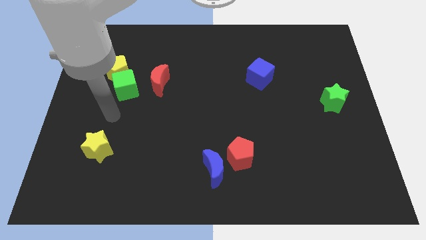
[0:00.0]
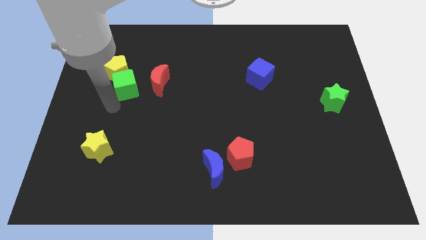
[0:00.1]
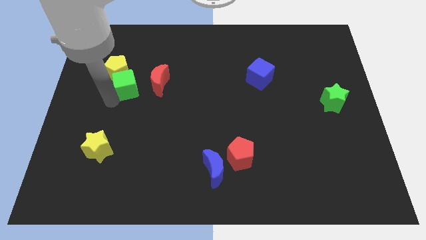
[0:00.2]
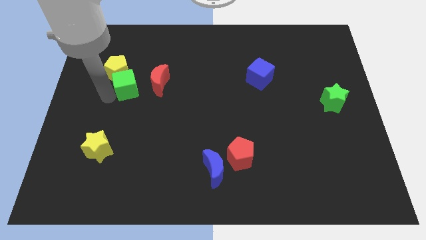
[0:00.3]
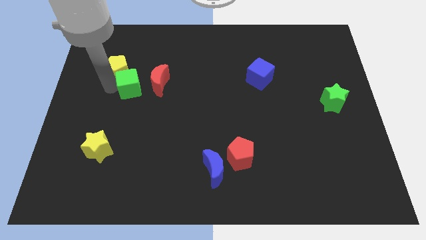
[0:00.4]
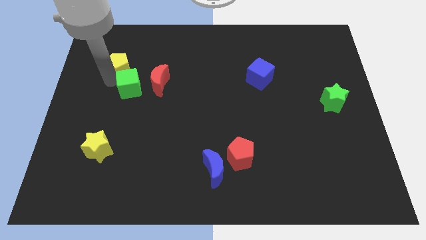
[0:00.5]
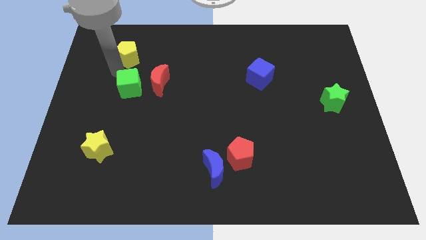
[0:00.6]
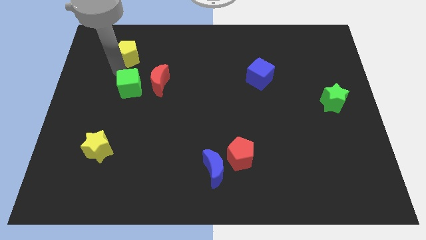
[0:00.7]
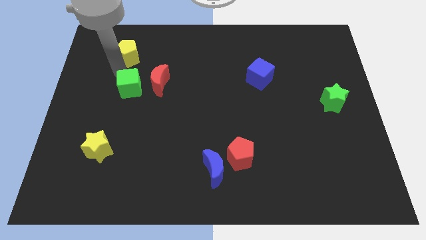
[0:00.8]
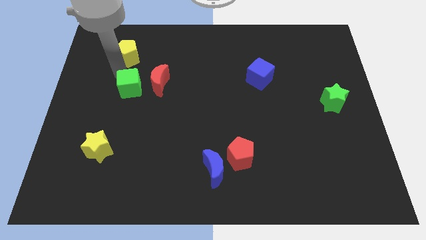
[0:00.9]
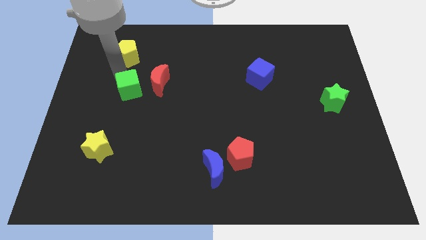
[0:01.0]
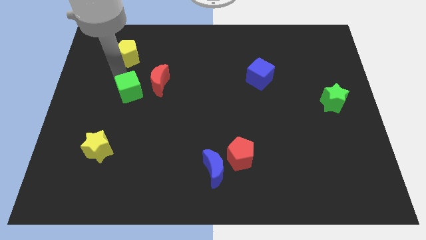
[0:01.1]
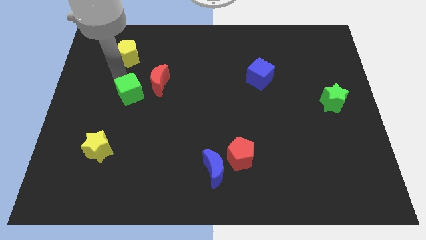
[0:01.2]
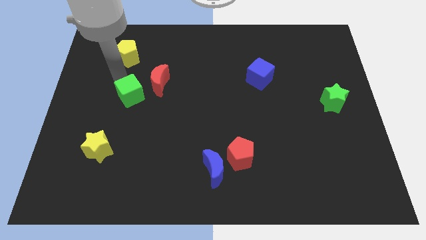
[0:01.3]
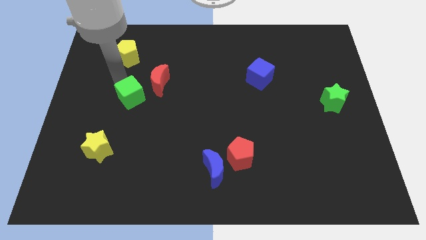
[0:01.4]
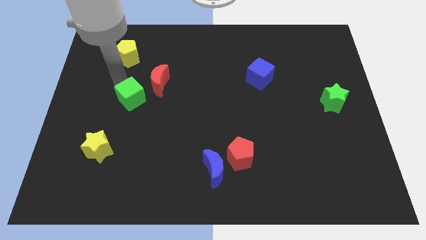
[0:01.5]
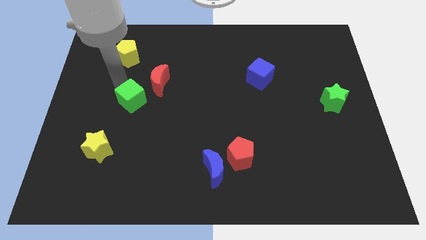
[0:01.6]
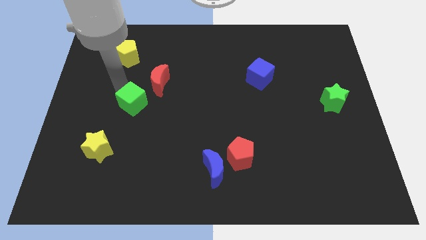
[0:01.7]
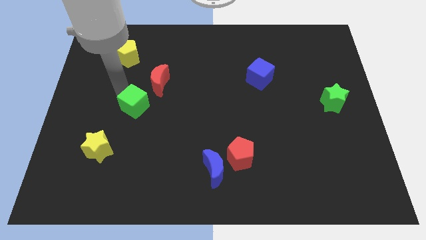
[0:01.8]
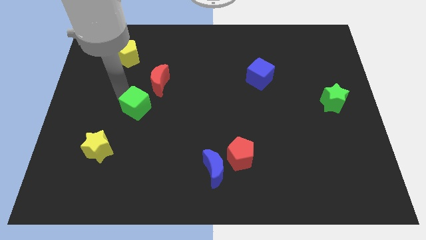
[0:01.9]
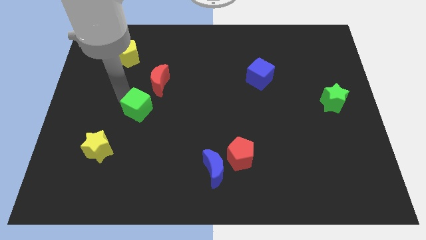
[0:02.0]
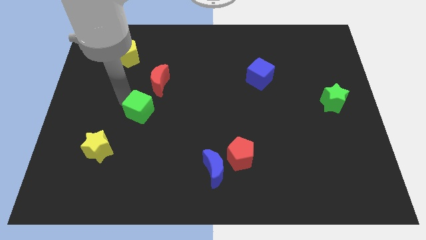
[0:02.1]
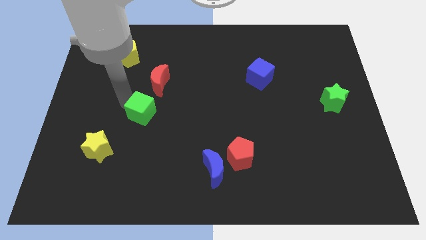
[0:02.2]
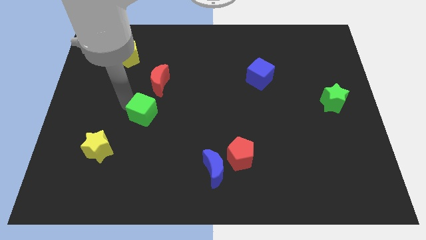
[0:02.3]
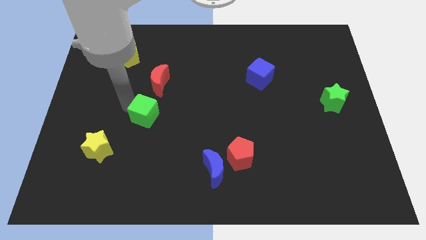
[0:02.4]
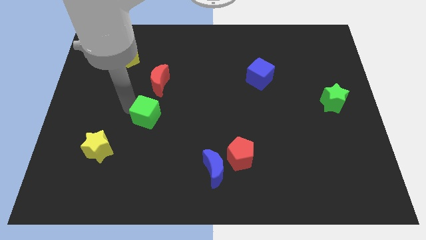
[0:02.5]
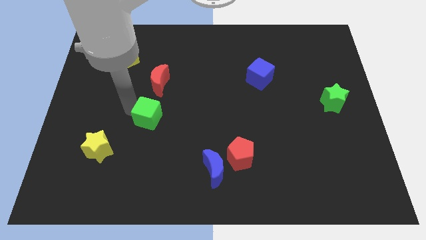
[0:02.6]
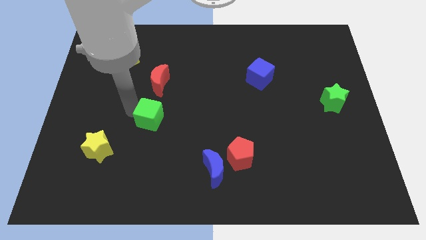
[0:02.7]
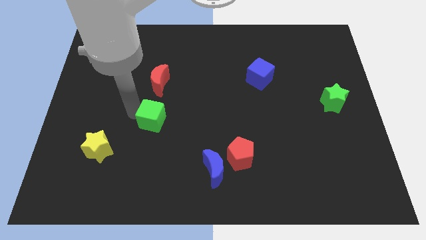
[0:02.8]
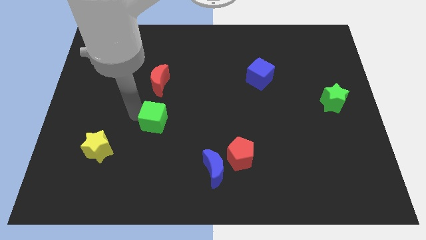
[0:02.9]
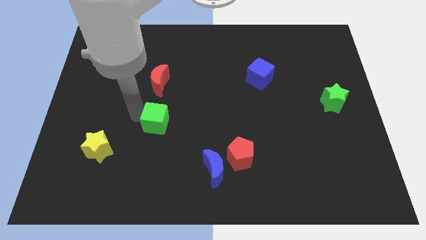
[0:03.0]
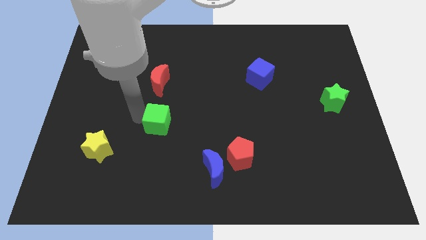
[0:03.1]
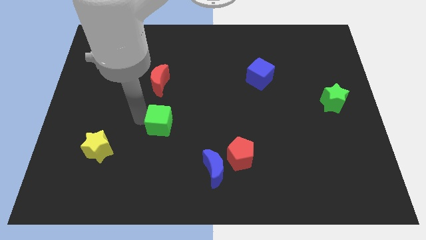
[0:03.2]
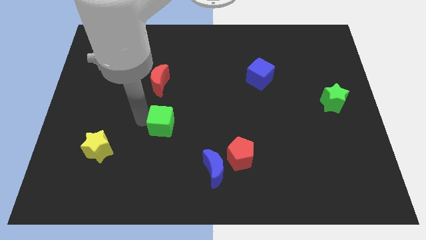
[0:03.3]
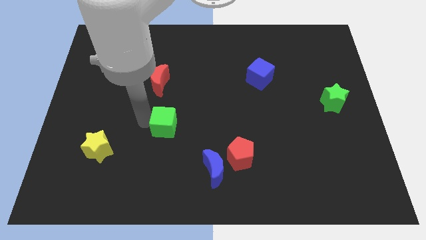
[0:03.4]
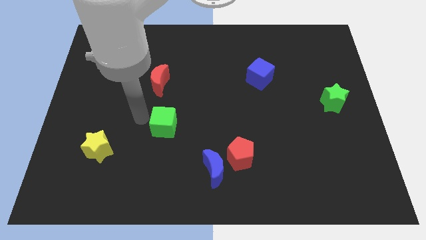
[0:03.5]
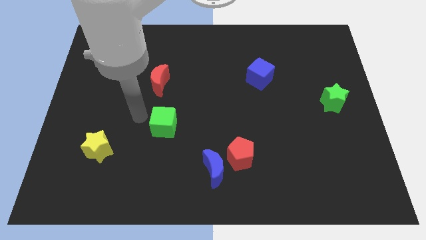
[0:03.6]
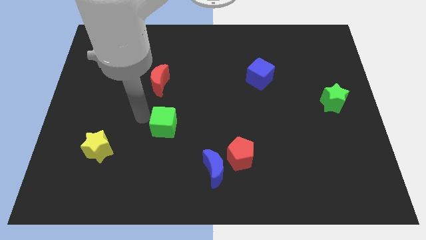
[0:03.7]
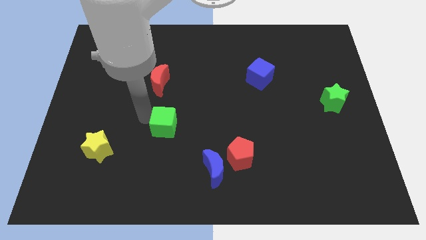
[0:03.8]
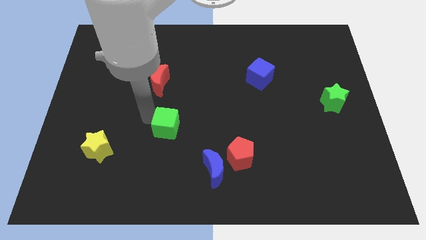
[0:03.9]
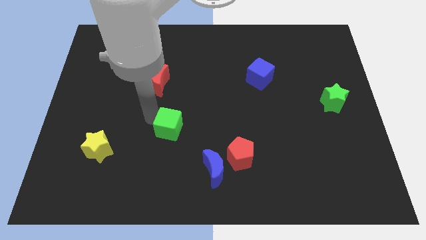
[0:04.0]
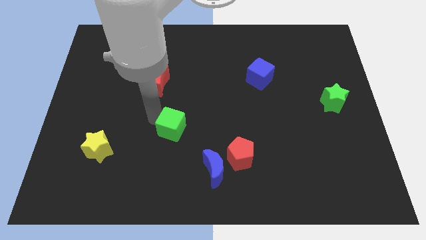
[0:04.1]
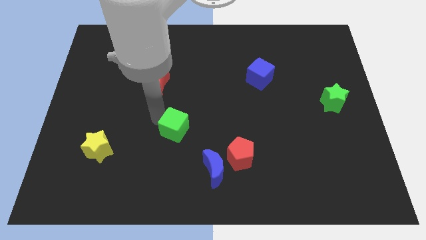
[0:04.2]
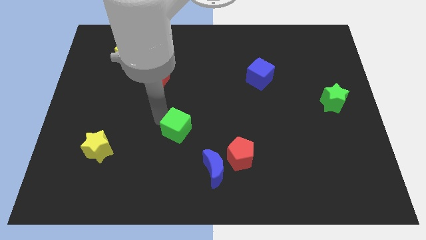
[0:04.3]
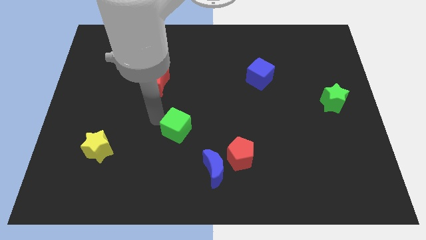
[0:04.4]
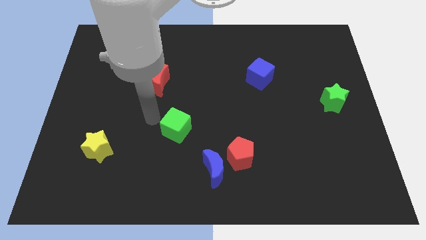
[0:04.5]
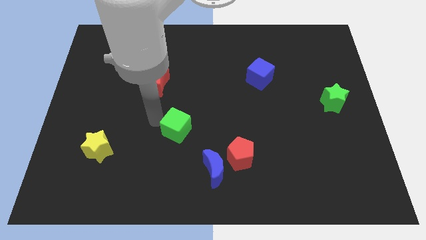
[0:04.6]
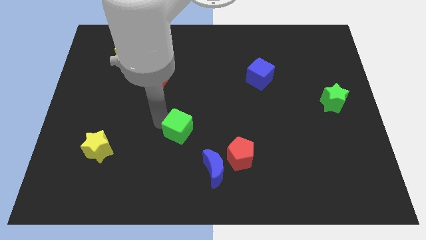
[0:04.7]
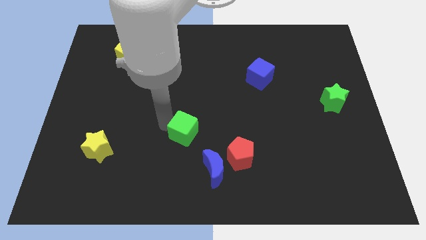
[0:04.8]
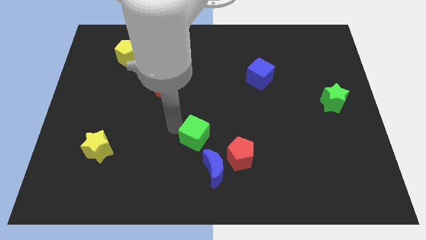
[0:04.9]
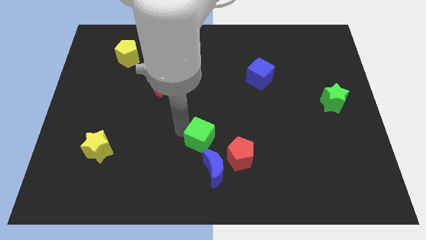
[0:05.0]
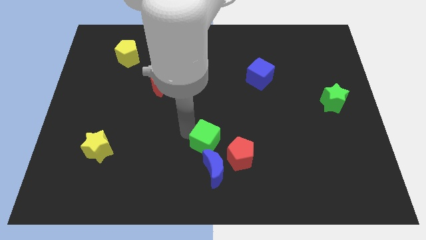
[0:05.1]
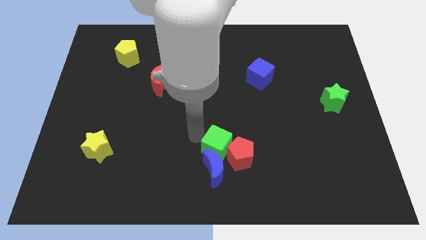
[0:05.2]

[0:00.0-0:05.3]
slide the green cube next to the red pentagon

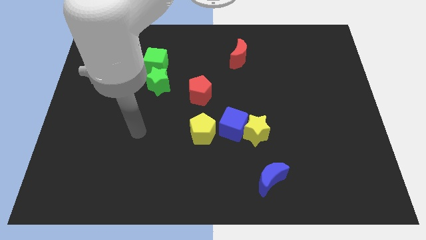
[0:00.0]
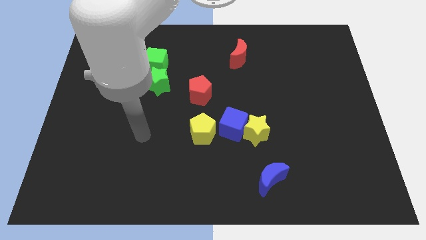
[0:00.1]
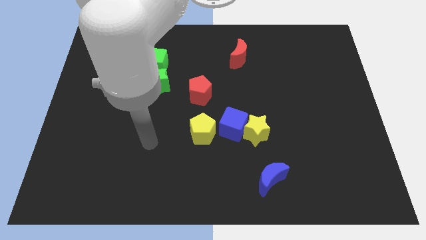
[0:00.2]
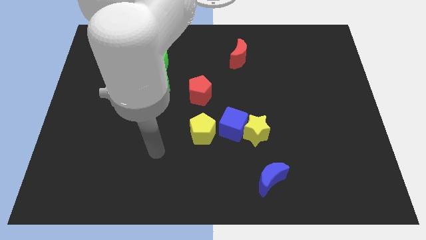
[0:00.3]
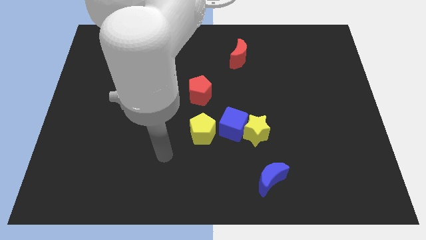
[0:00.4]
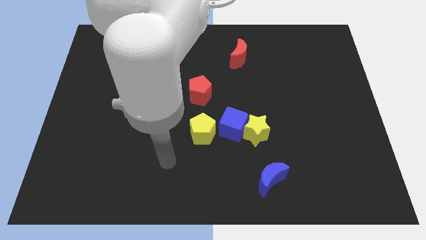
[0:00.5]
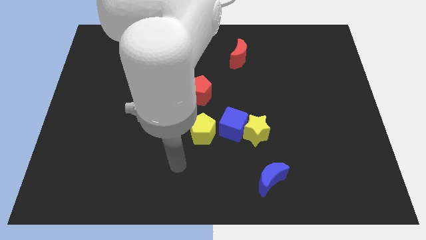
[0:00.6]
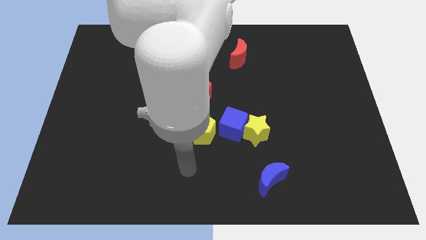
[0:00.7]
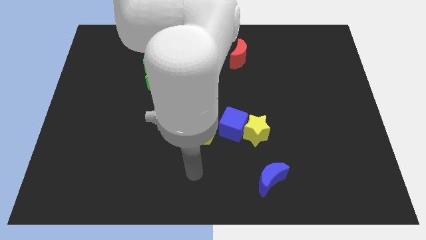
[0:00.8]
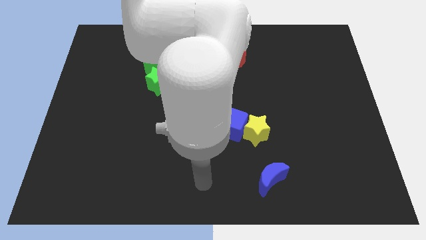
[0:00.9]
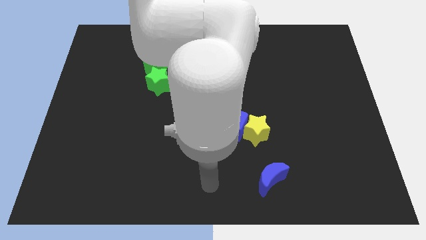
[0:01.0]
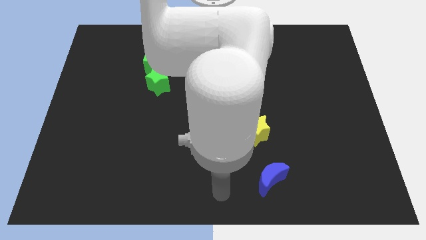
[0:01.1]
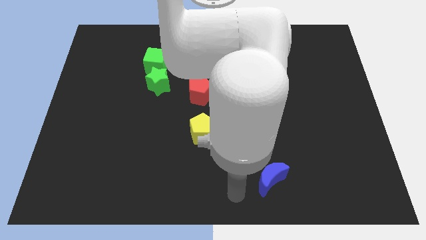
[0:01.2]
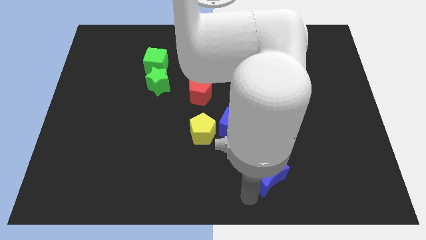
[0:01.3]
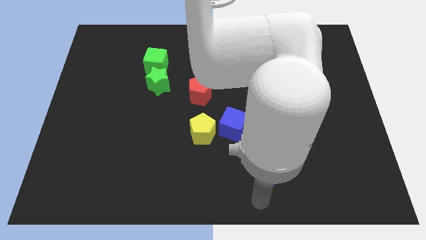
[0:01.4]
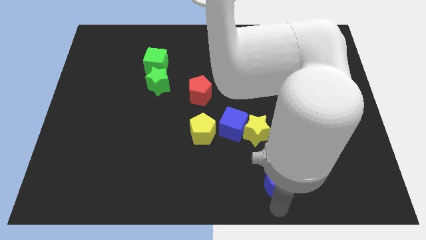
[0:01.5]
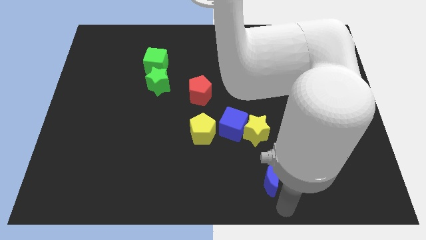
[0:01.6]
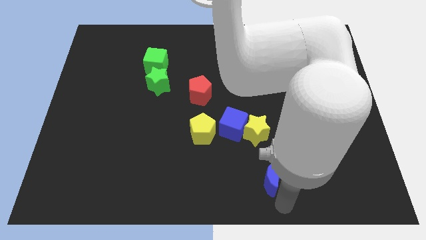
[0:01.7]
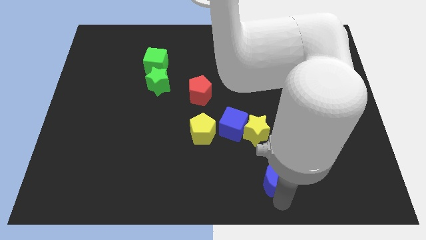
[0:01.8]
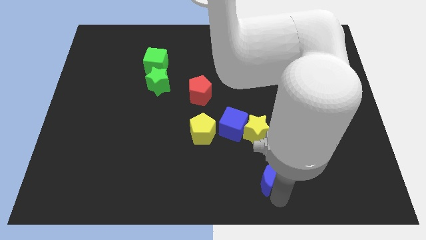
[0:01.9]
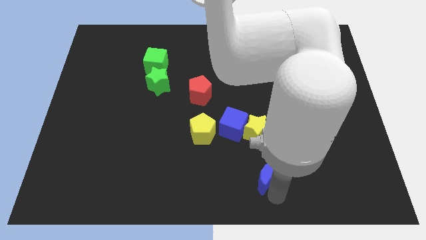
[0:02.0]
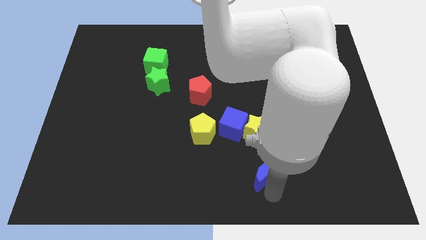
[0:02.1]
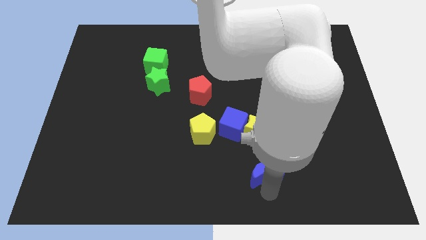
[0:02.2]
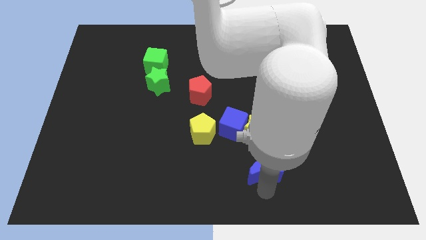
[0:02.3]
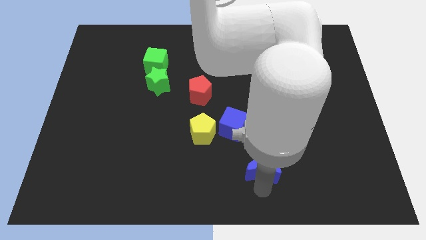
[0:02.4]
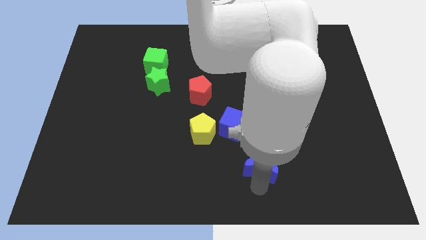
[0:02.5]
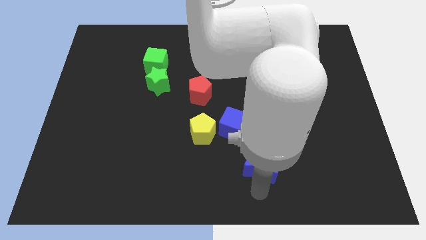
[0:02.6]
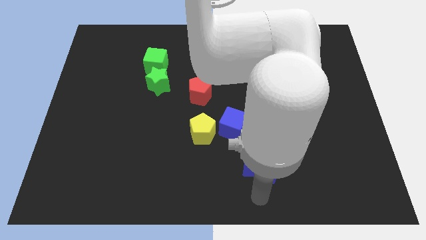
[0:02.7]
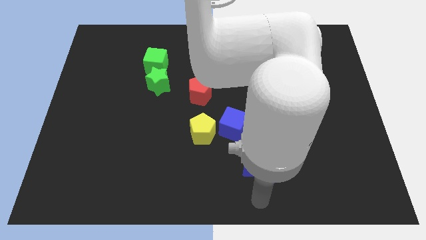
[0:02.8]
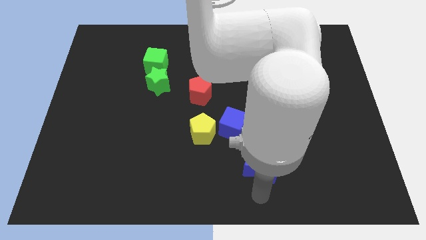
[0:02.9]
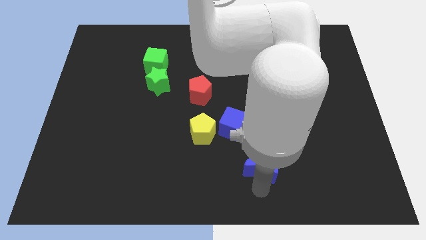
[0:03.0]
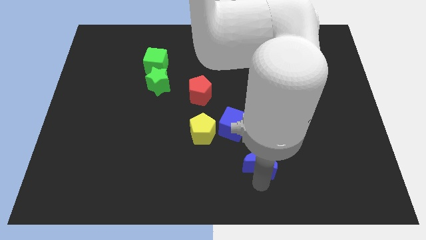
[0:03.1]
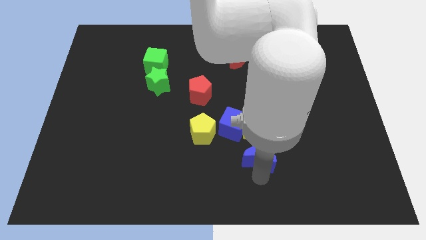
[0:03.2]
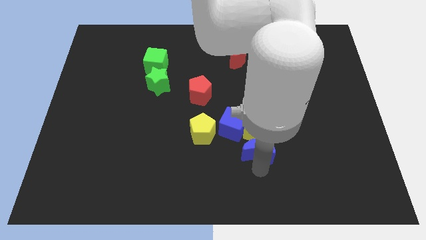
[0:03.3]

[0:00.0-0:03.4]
put the blue moon towards the yellow star
